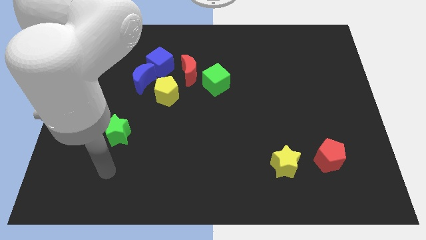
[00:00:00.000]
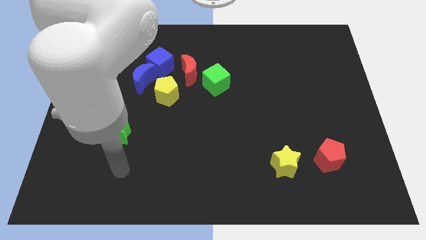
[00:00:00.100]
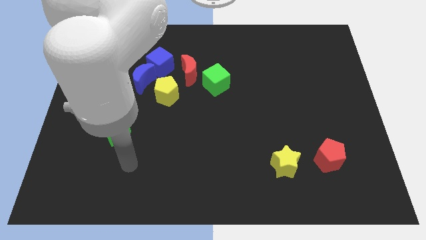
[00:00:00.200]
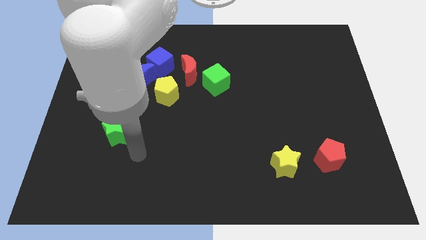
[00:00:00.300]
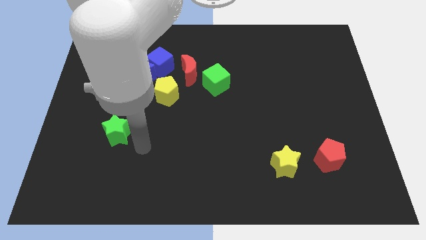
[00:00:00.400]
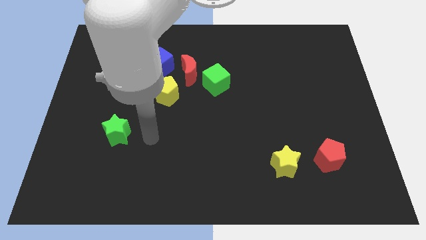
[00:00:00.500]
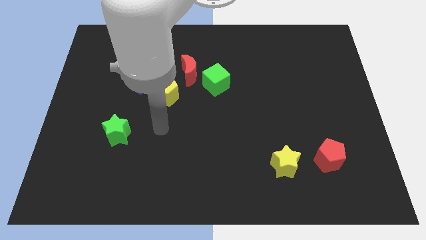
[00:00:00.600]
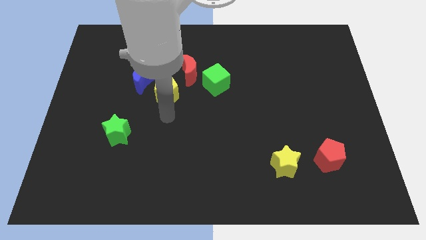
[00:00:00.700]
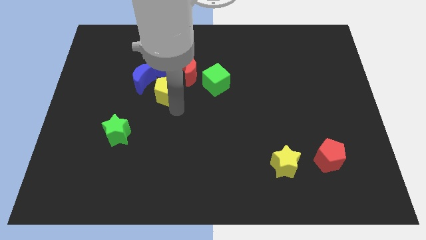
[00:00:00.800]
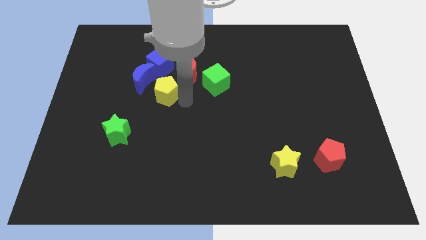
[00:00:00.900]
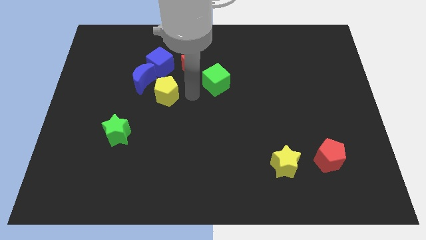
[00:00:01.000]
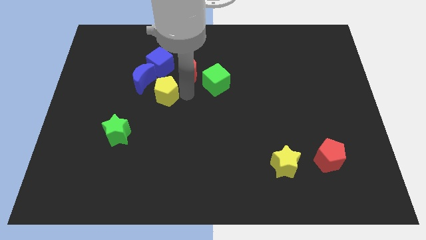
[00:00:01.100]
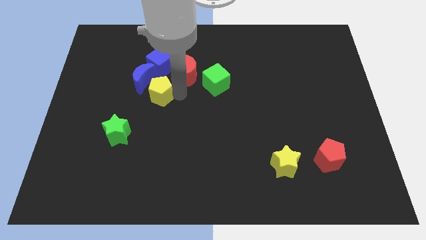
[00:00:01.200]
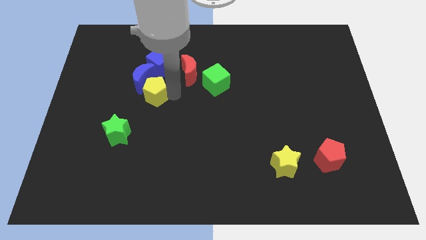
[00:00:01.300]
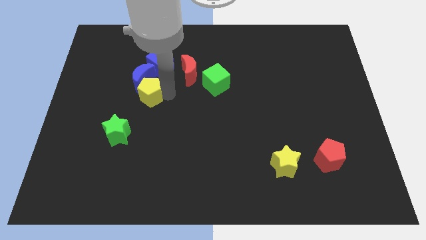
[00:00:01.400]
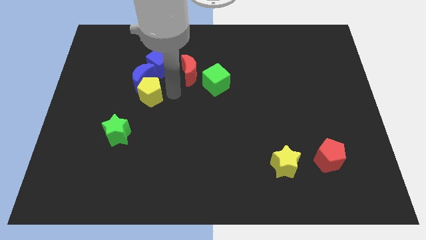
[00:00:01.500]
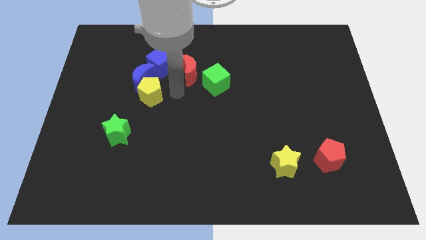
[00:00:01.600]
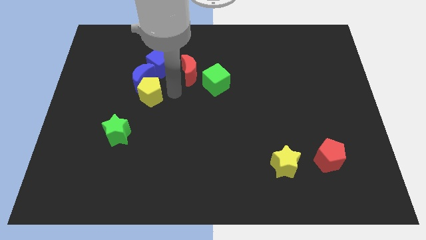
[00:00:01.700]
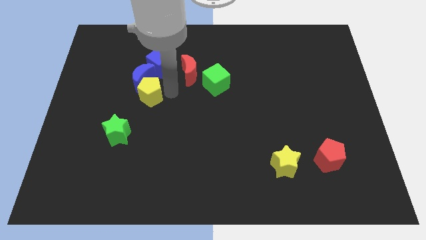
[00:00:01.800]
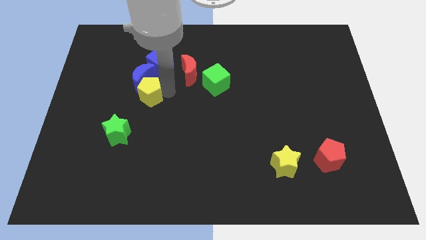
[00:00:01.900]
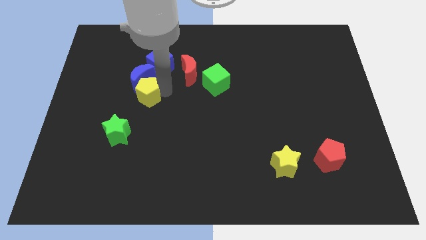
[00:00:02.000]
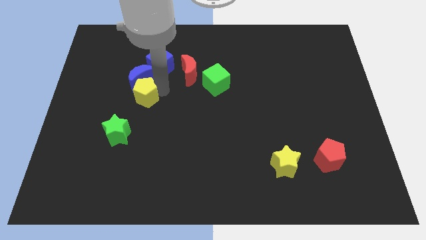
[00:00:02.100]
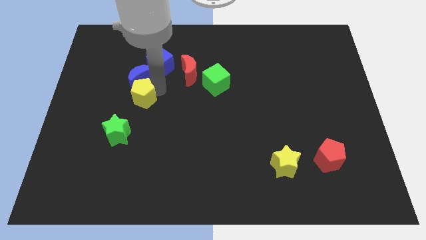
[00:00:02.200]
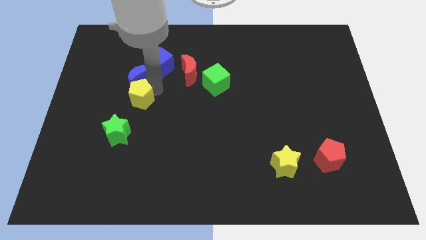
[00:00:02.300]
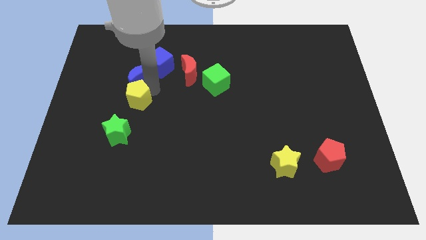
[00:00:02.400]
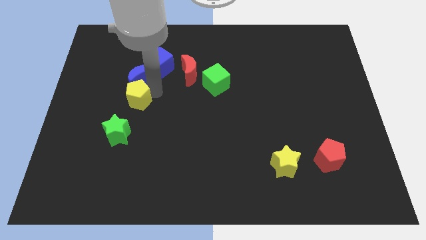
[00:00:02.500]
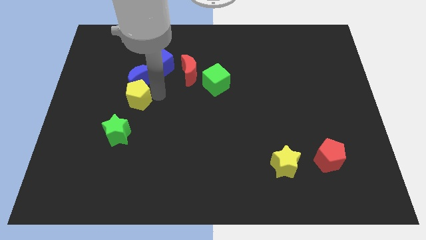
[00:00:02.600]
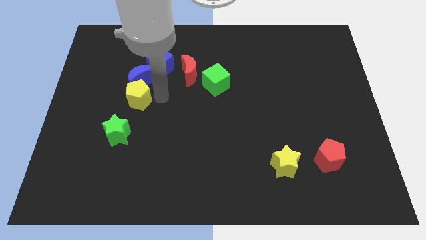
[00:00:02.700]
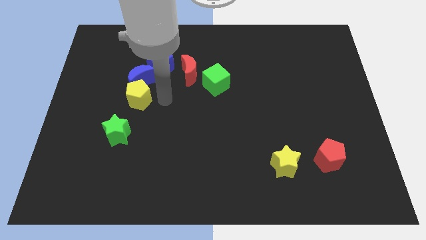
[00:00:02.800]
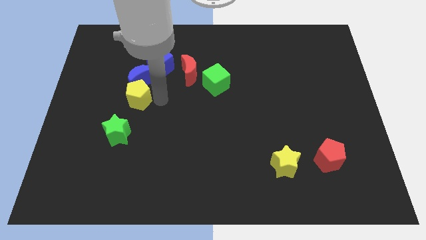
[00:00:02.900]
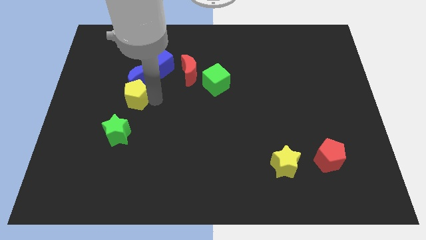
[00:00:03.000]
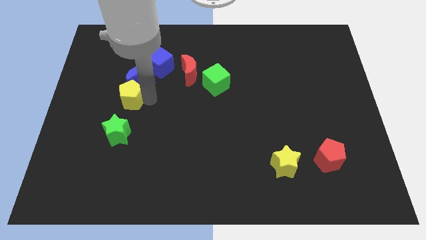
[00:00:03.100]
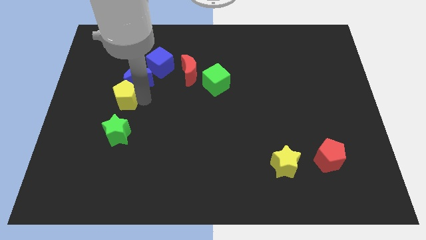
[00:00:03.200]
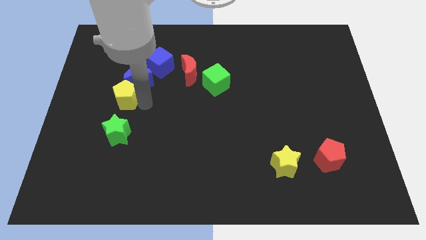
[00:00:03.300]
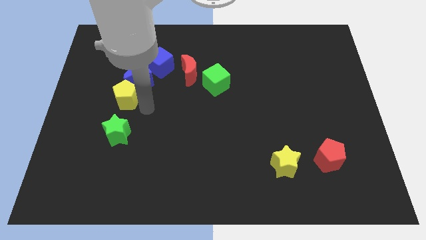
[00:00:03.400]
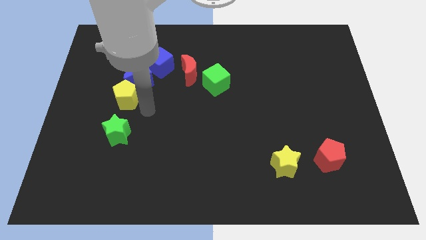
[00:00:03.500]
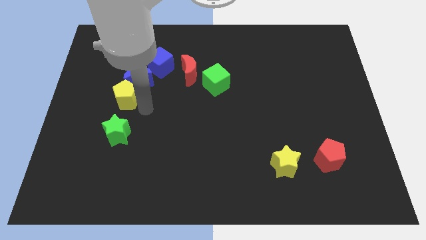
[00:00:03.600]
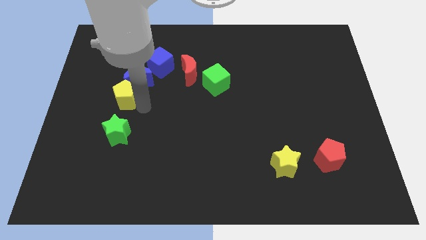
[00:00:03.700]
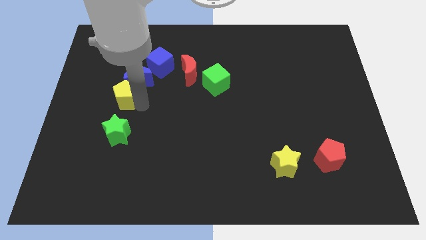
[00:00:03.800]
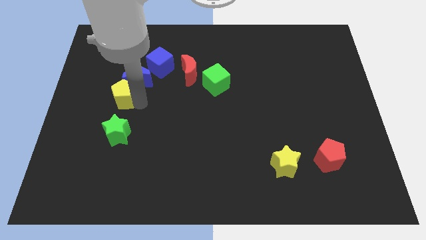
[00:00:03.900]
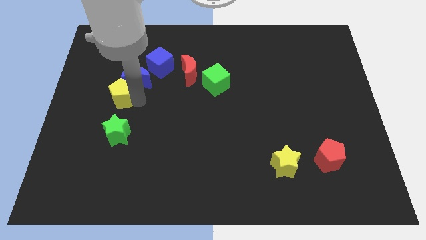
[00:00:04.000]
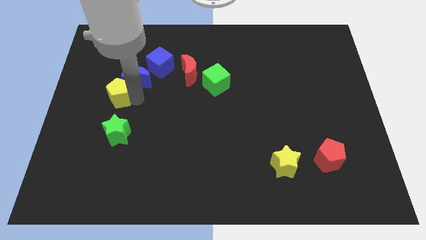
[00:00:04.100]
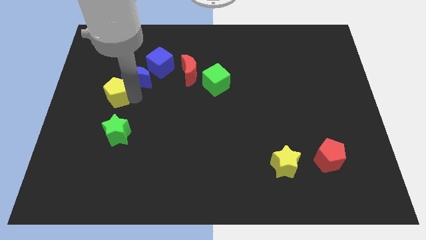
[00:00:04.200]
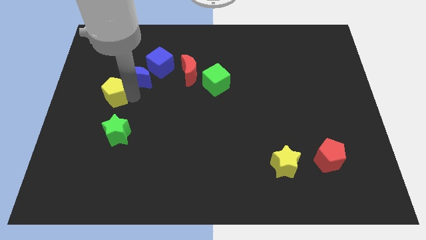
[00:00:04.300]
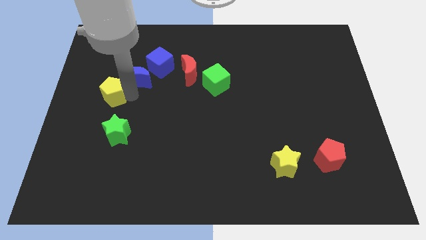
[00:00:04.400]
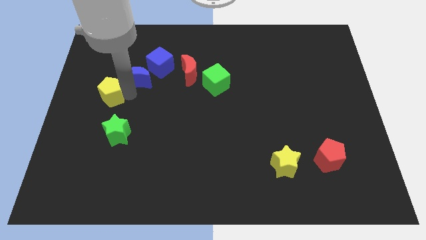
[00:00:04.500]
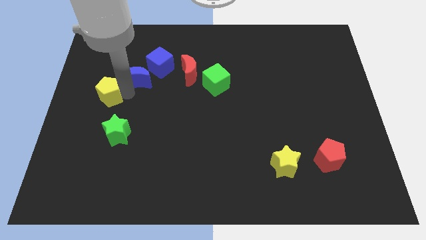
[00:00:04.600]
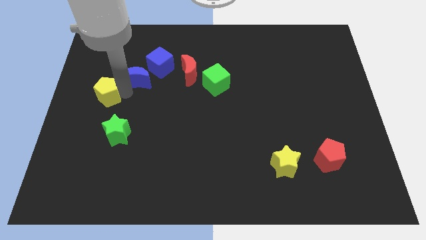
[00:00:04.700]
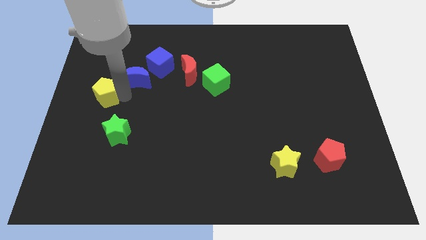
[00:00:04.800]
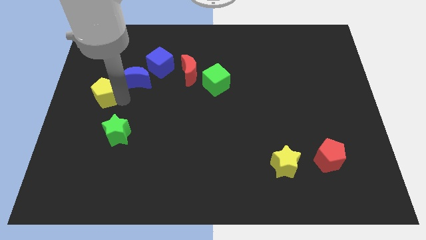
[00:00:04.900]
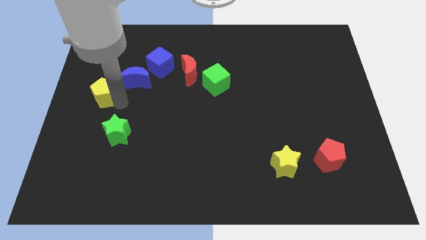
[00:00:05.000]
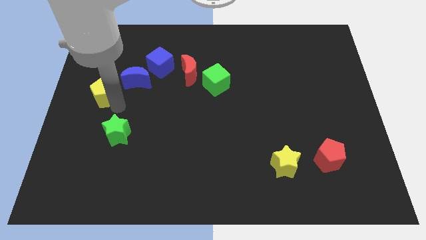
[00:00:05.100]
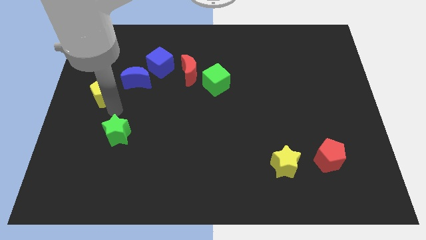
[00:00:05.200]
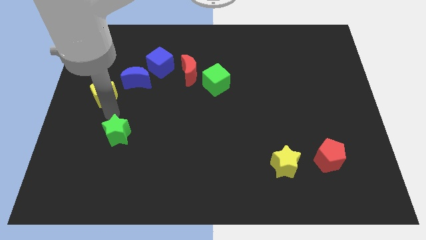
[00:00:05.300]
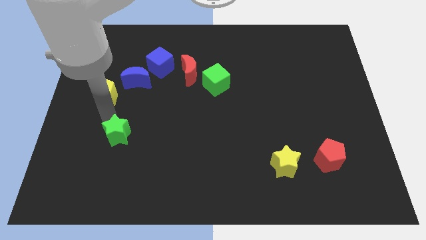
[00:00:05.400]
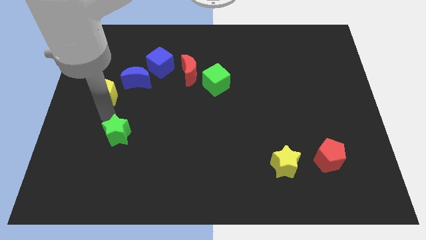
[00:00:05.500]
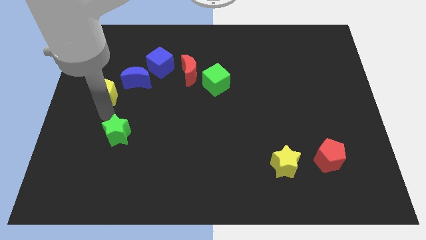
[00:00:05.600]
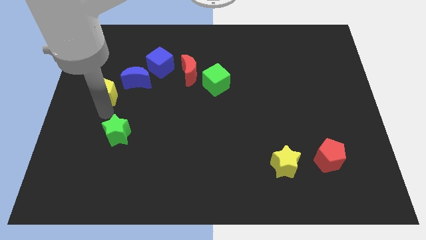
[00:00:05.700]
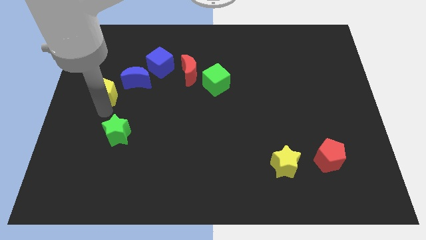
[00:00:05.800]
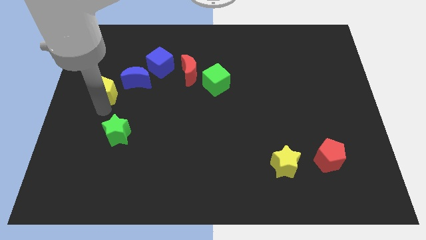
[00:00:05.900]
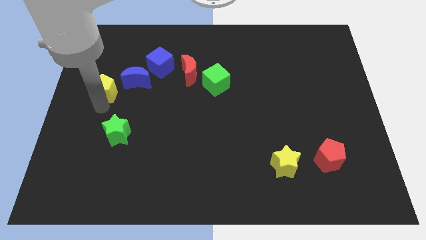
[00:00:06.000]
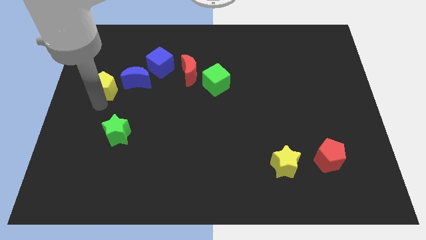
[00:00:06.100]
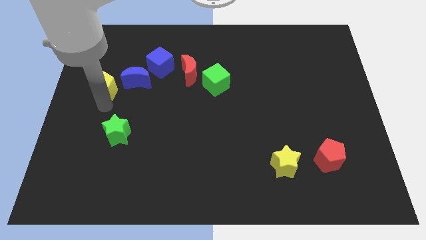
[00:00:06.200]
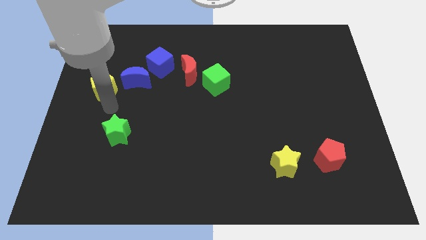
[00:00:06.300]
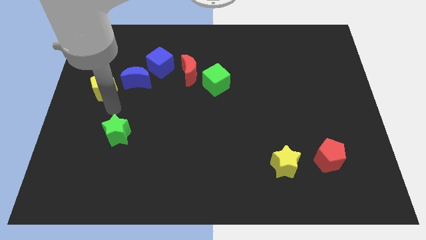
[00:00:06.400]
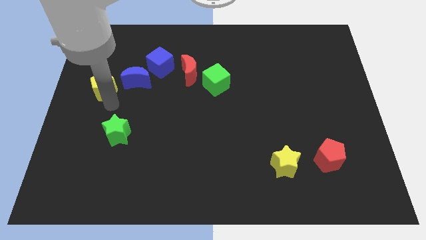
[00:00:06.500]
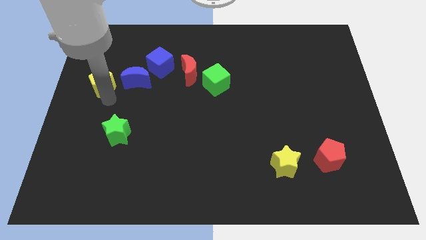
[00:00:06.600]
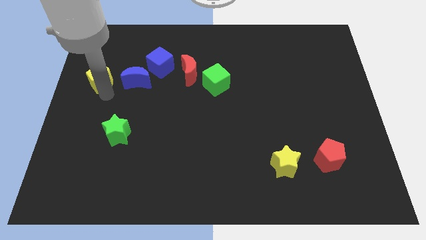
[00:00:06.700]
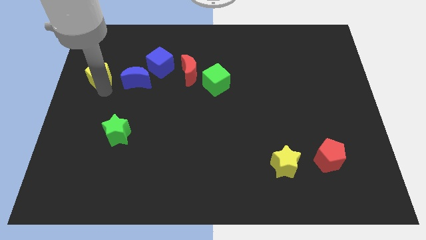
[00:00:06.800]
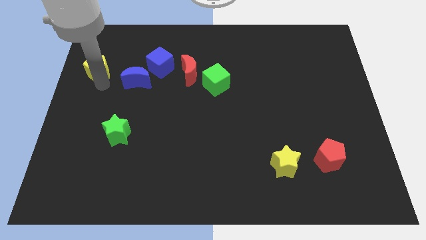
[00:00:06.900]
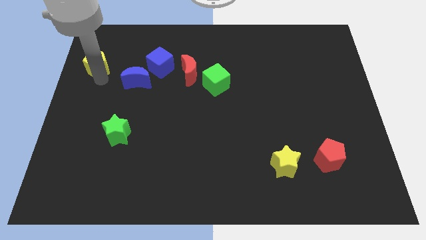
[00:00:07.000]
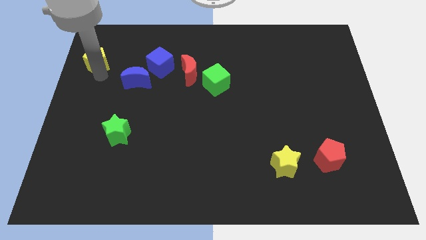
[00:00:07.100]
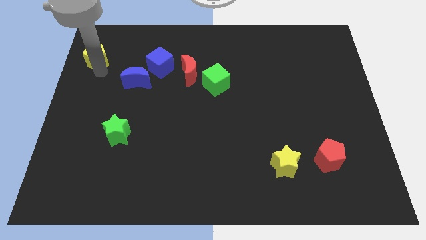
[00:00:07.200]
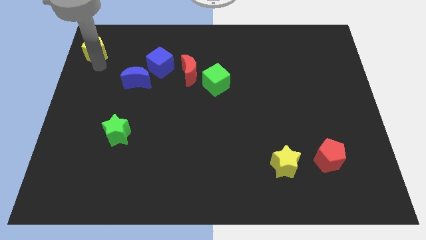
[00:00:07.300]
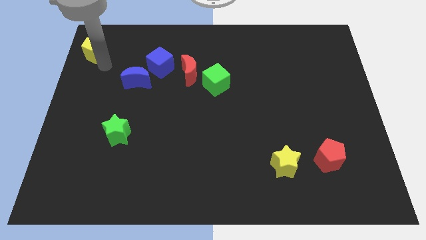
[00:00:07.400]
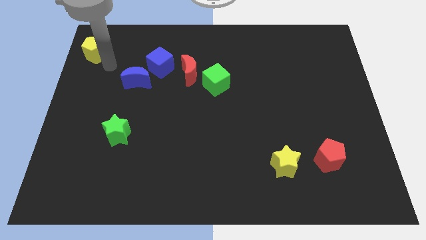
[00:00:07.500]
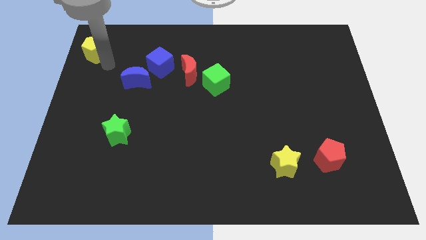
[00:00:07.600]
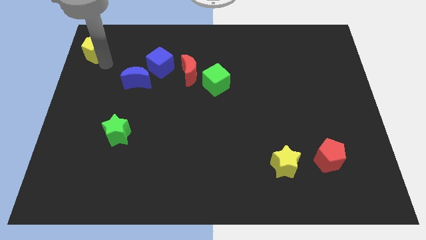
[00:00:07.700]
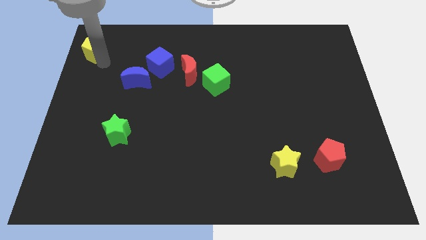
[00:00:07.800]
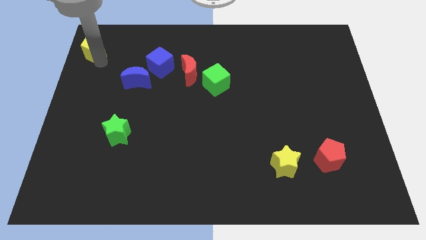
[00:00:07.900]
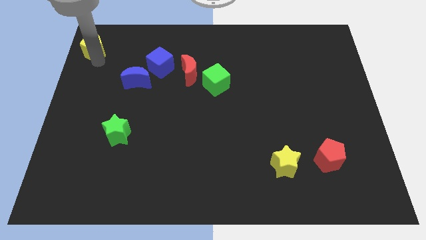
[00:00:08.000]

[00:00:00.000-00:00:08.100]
move the yellow pentagon to the top left
